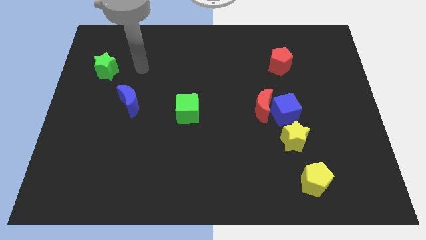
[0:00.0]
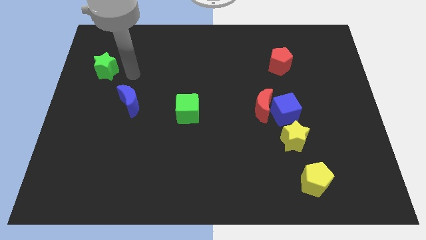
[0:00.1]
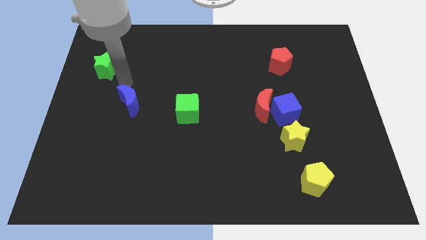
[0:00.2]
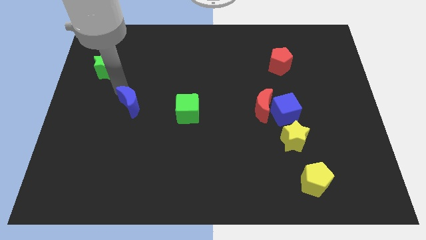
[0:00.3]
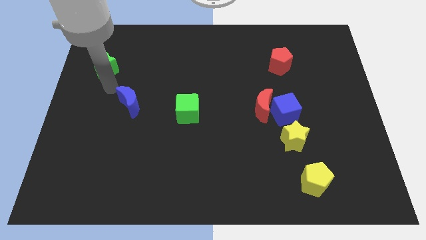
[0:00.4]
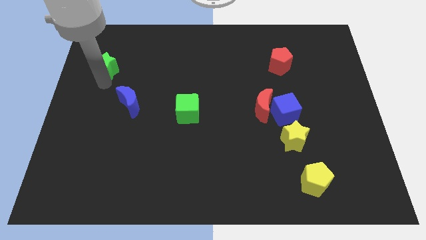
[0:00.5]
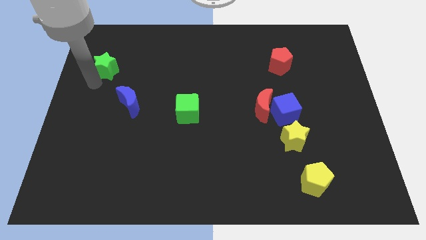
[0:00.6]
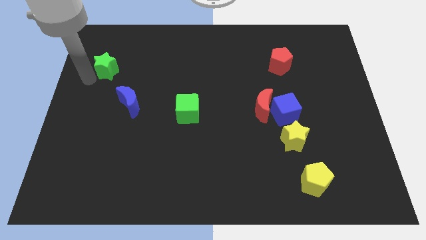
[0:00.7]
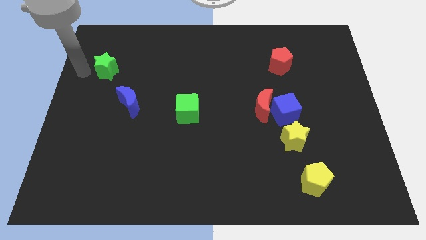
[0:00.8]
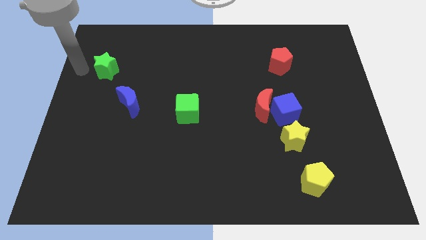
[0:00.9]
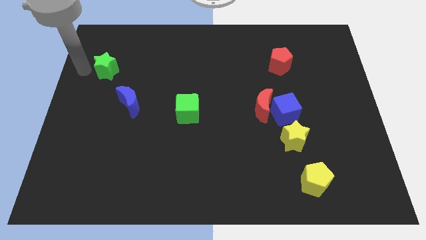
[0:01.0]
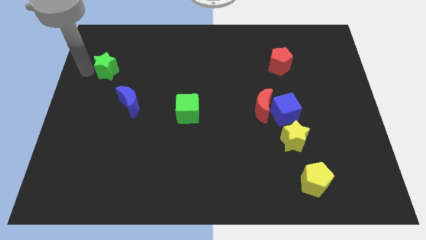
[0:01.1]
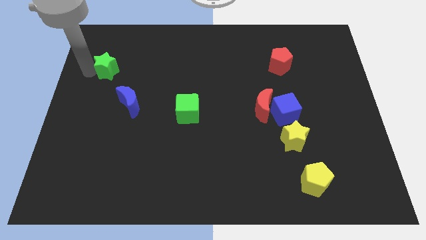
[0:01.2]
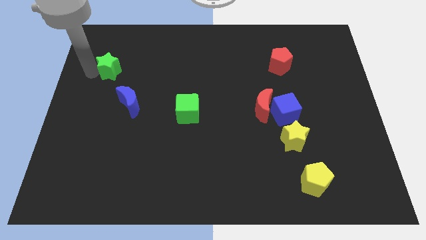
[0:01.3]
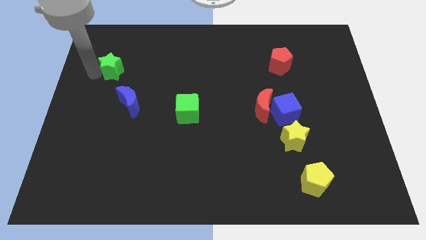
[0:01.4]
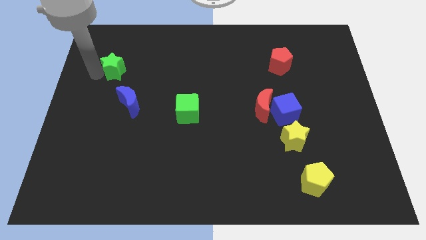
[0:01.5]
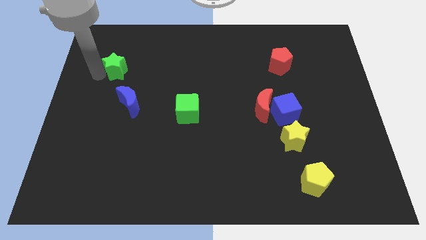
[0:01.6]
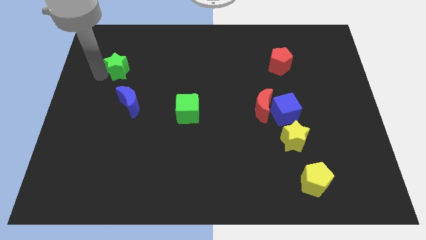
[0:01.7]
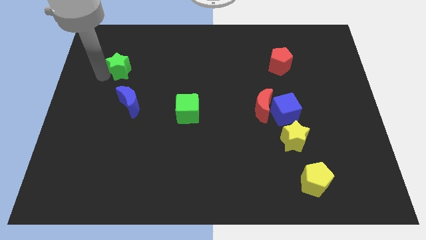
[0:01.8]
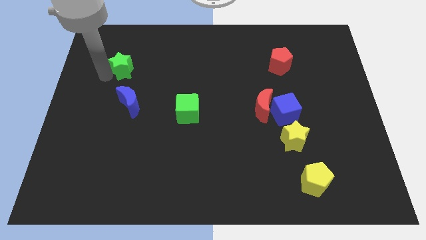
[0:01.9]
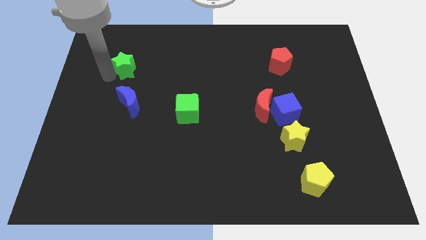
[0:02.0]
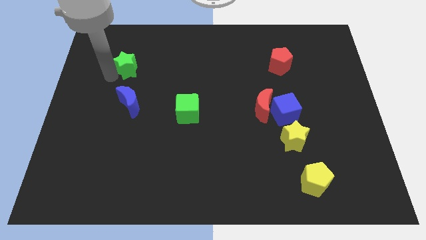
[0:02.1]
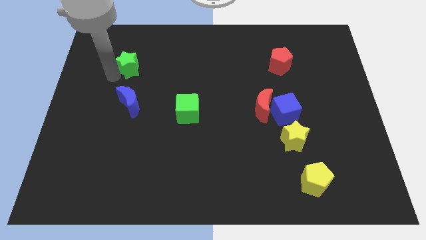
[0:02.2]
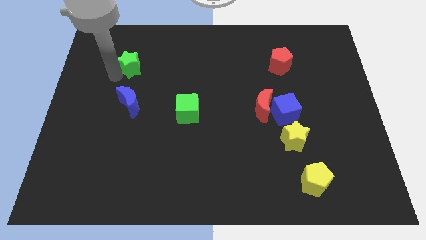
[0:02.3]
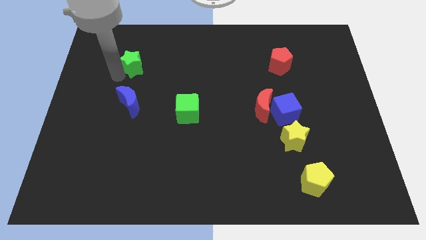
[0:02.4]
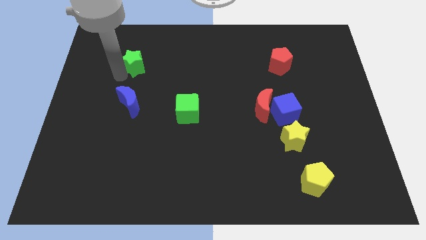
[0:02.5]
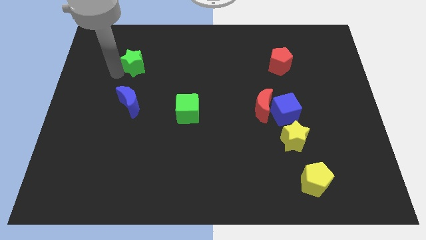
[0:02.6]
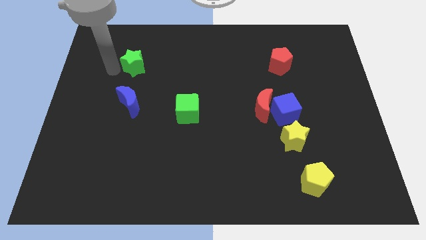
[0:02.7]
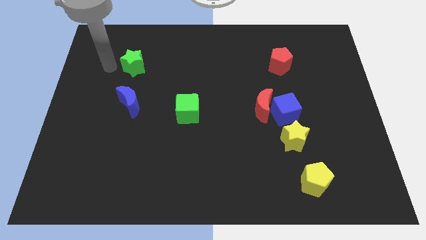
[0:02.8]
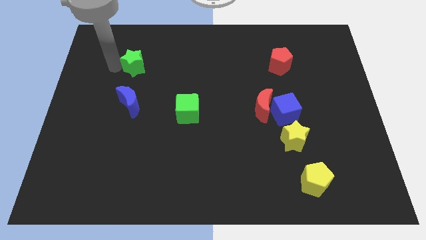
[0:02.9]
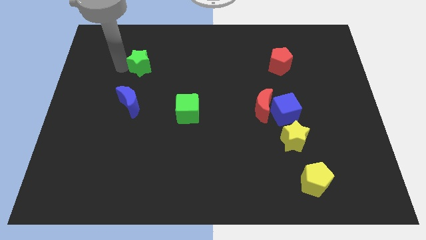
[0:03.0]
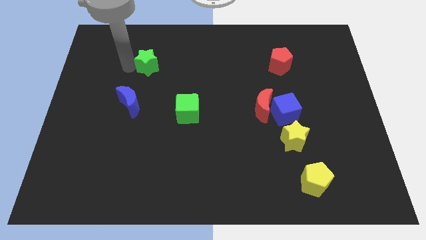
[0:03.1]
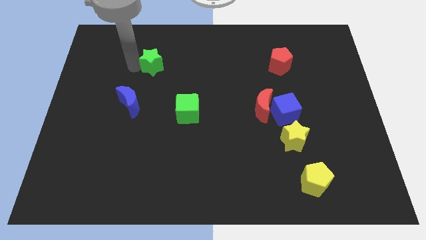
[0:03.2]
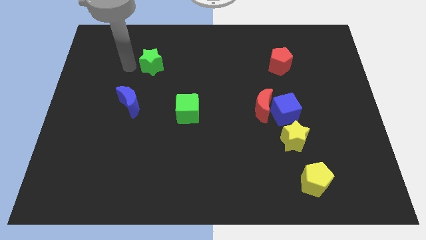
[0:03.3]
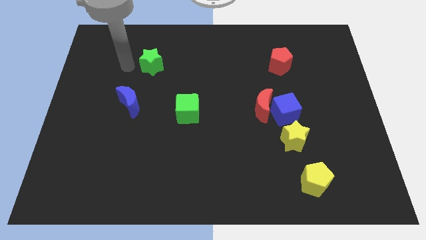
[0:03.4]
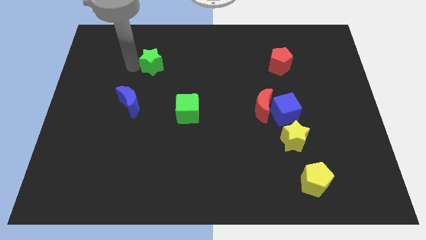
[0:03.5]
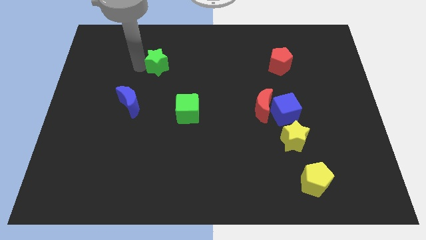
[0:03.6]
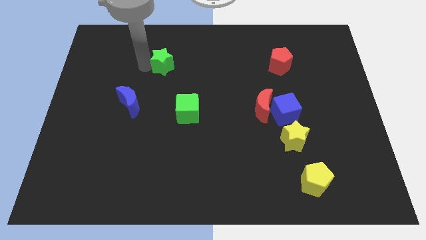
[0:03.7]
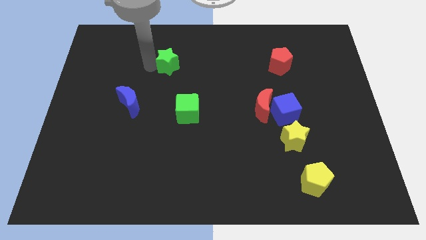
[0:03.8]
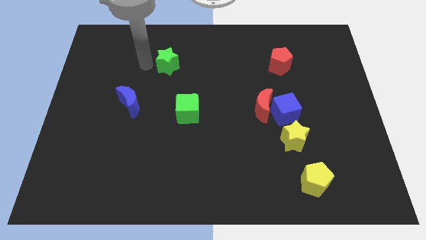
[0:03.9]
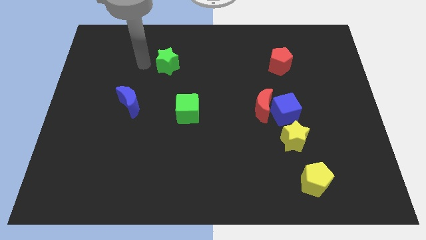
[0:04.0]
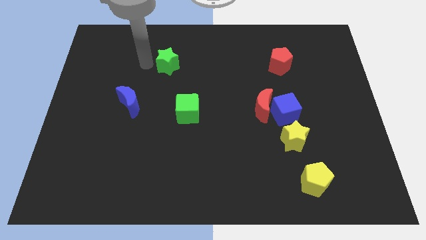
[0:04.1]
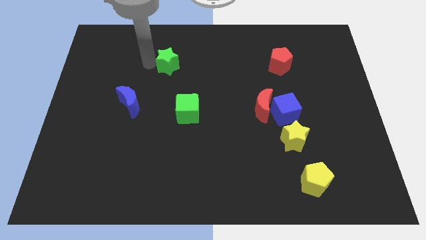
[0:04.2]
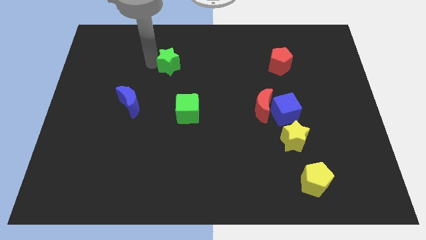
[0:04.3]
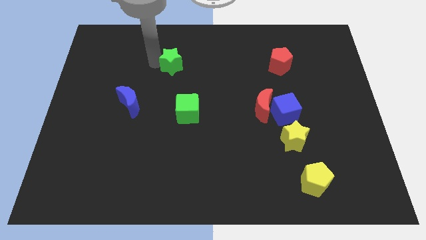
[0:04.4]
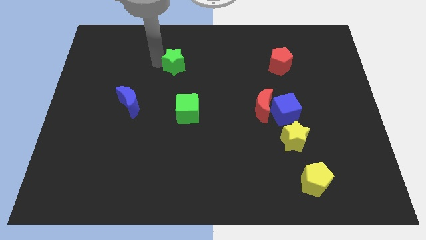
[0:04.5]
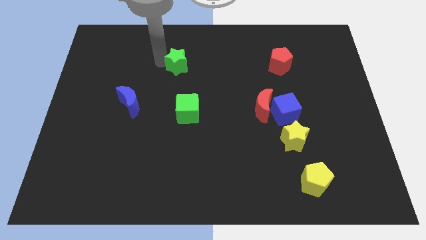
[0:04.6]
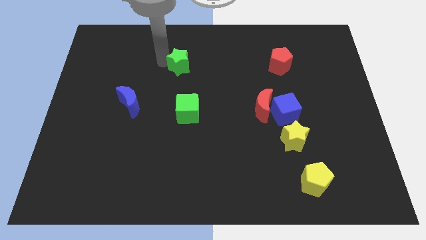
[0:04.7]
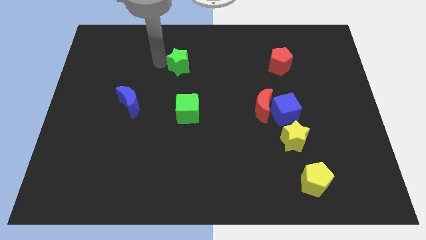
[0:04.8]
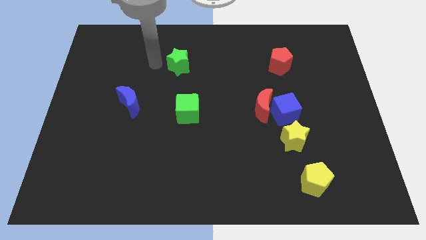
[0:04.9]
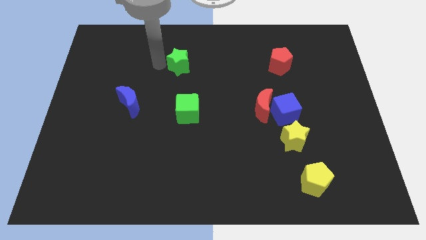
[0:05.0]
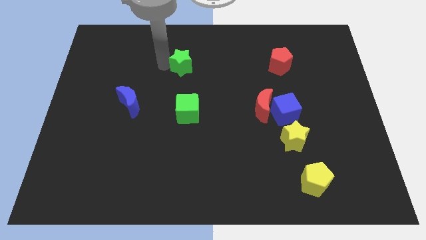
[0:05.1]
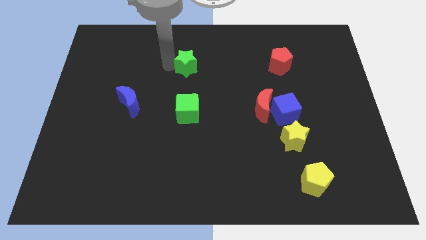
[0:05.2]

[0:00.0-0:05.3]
move the green star to the right

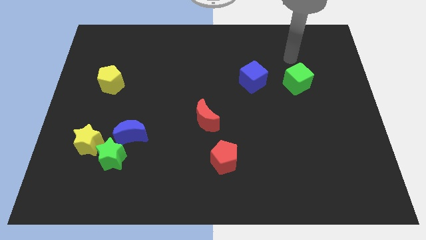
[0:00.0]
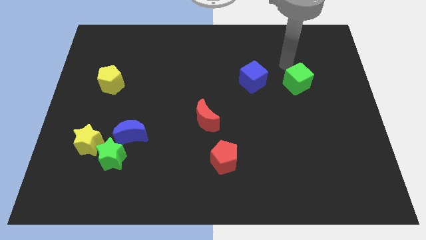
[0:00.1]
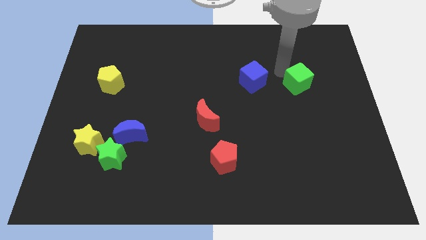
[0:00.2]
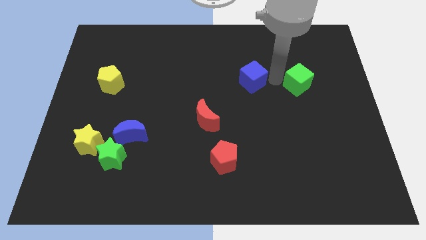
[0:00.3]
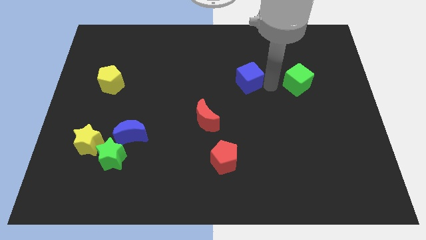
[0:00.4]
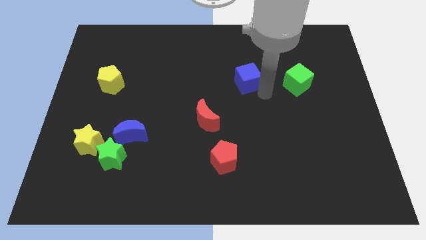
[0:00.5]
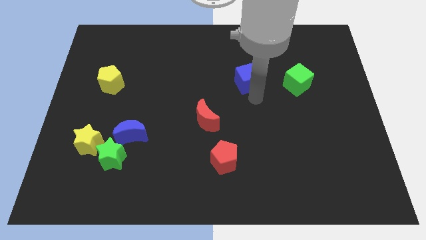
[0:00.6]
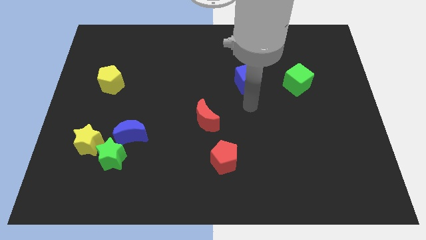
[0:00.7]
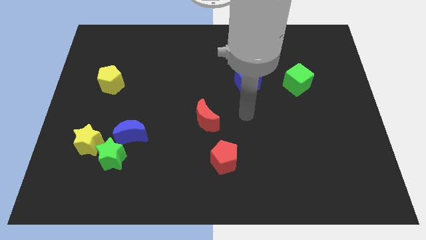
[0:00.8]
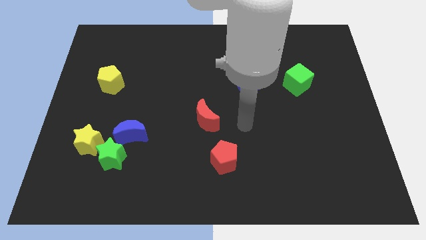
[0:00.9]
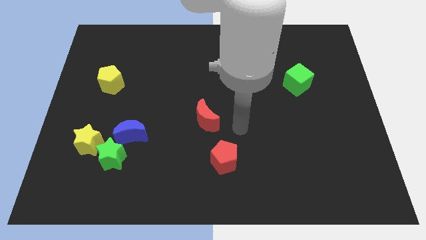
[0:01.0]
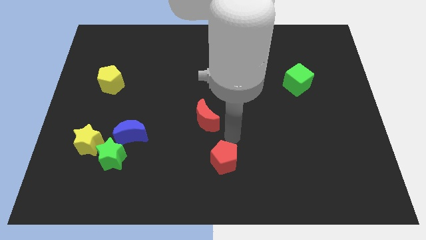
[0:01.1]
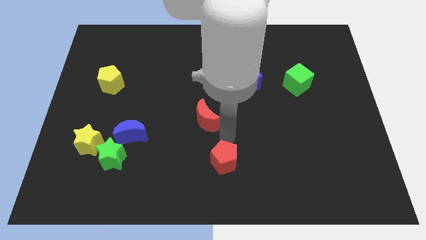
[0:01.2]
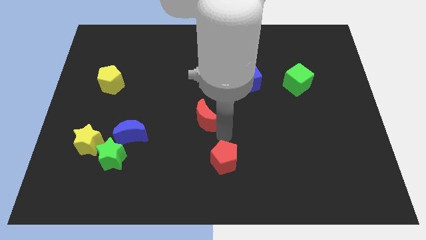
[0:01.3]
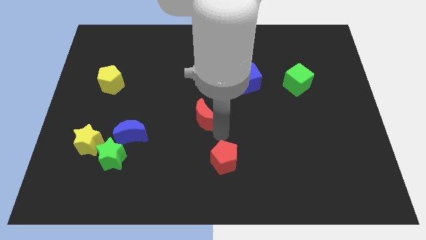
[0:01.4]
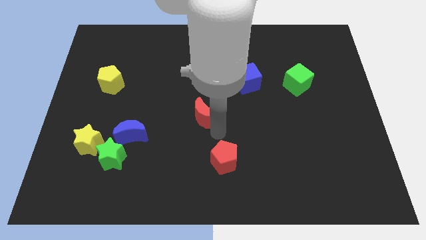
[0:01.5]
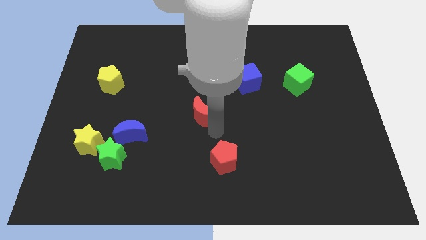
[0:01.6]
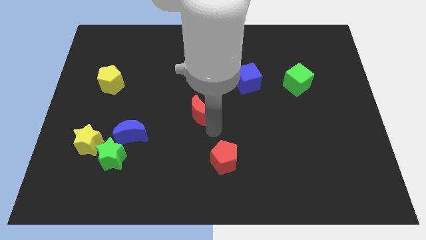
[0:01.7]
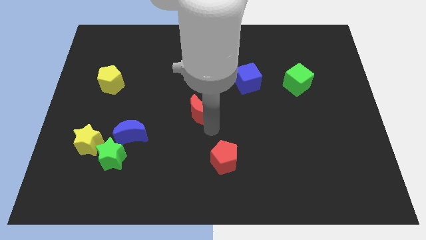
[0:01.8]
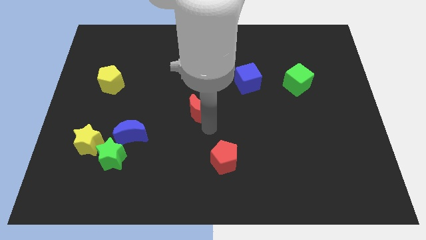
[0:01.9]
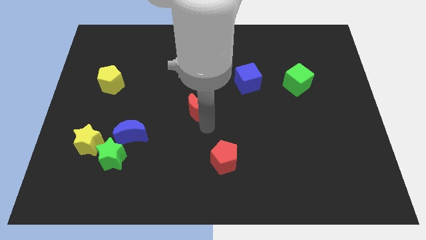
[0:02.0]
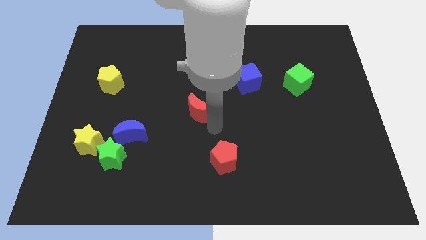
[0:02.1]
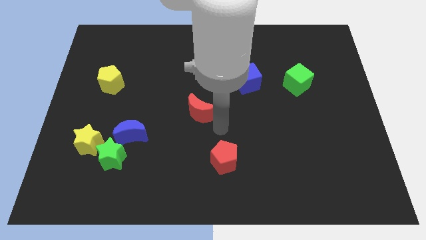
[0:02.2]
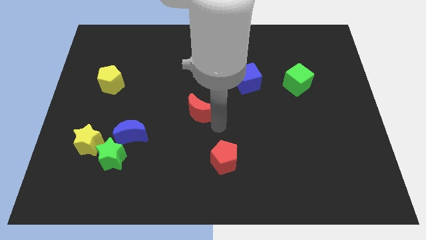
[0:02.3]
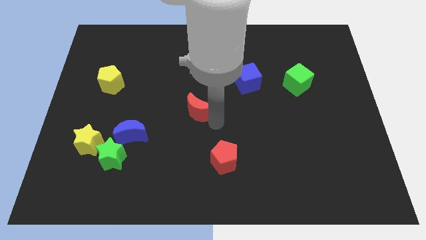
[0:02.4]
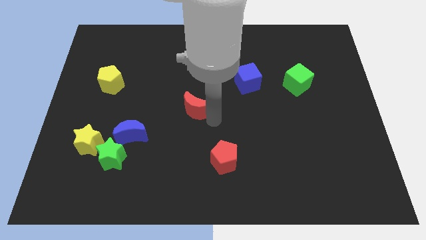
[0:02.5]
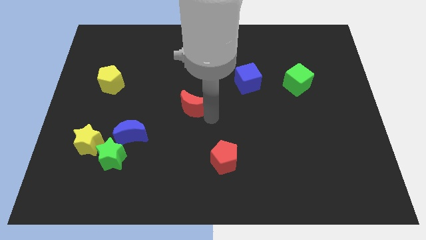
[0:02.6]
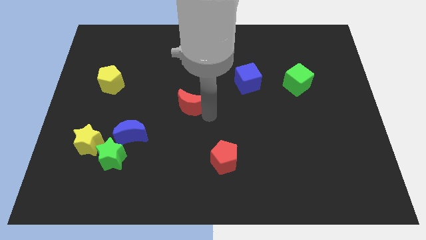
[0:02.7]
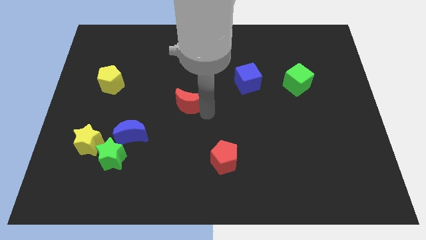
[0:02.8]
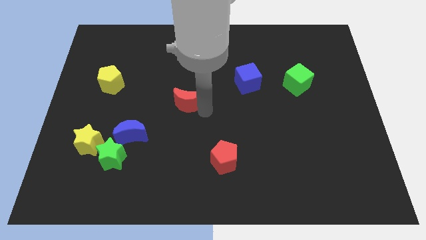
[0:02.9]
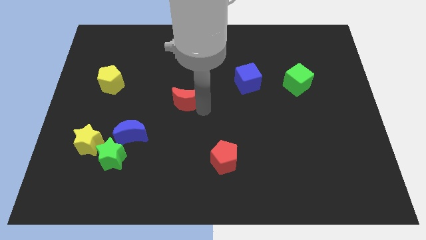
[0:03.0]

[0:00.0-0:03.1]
move the red moon a bit diagonally upwards and to the left

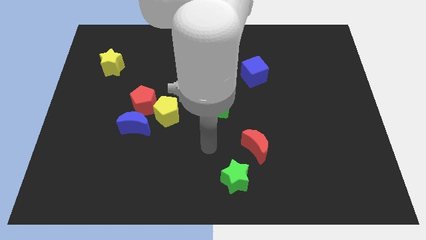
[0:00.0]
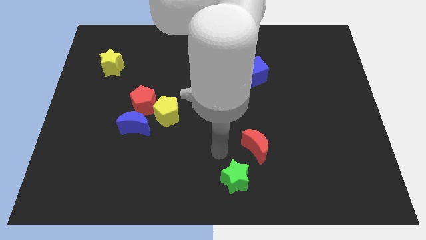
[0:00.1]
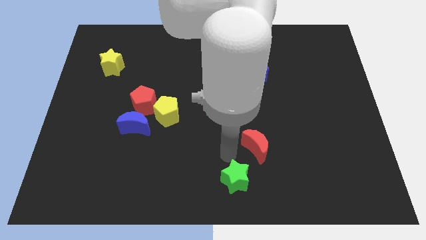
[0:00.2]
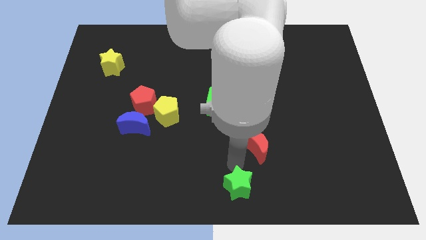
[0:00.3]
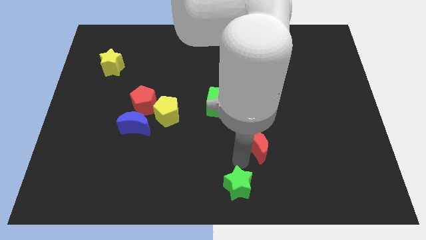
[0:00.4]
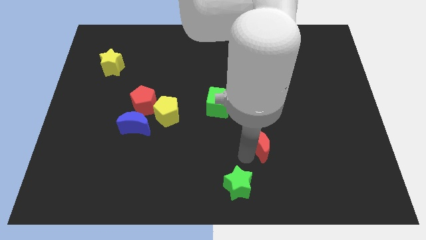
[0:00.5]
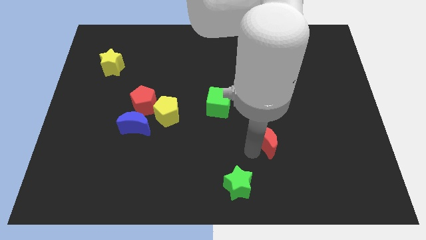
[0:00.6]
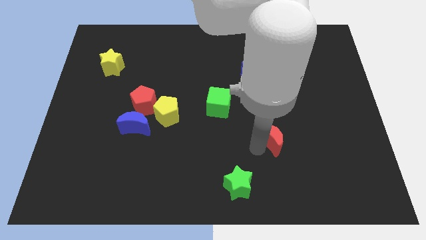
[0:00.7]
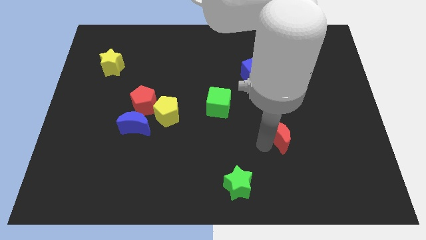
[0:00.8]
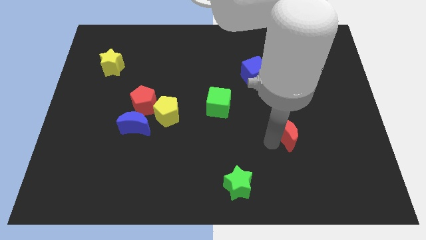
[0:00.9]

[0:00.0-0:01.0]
slightly push the red moon diagonally upwards and to the right
